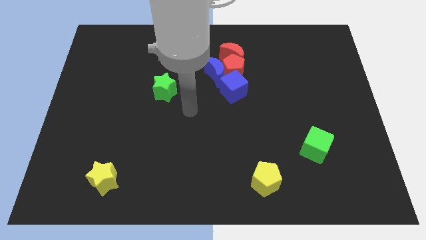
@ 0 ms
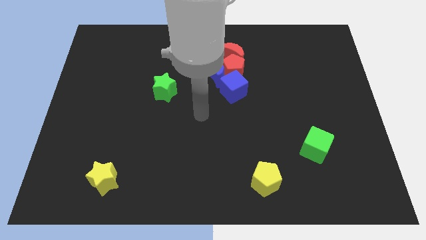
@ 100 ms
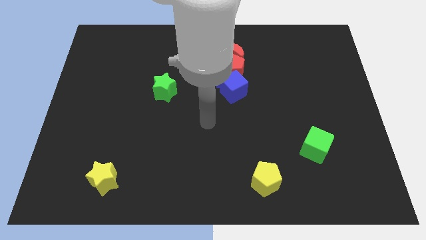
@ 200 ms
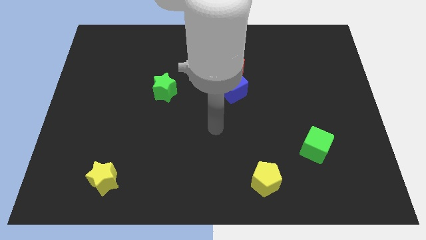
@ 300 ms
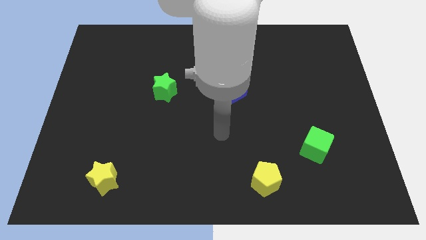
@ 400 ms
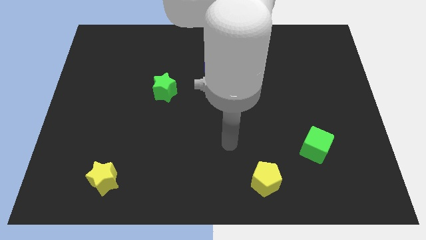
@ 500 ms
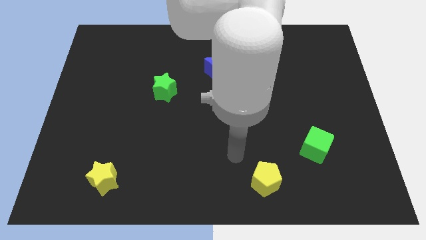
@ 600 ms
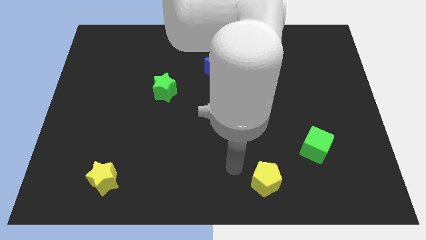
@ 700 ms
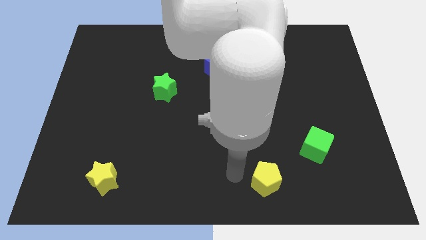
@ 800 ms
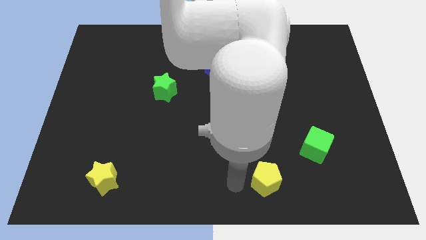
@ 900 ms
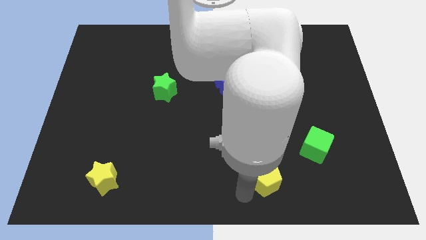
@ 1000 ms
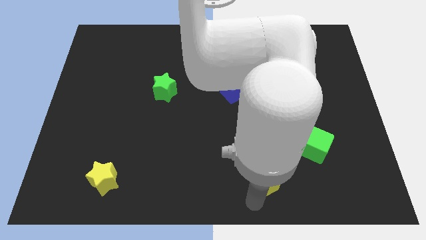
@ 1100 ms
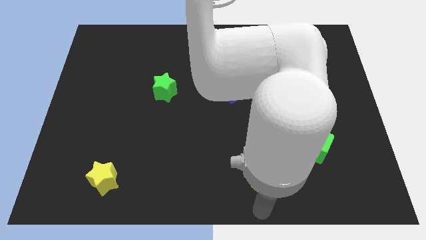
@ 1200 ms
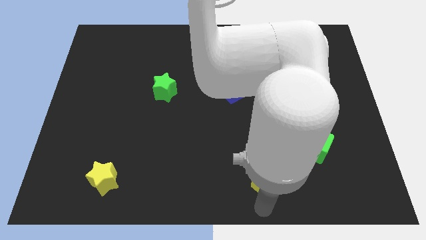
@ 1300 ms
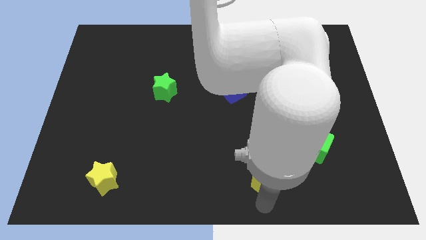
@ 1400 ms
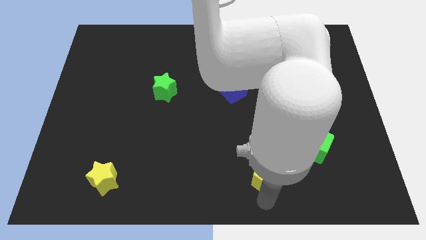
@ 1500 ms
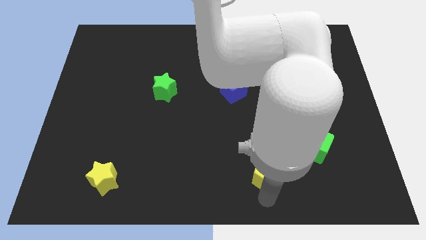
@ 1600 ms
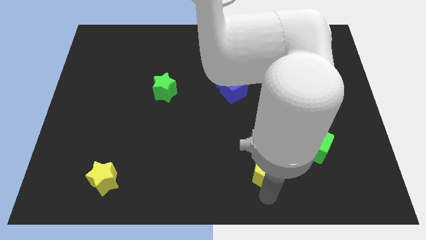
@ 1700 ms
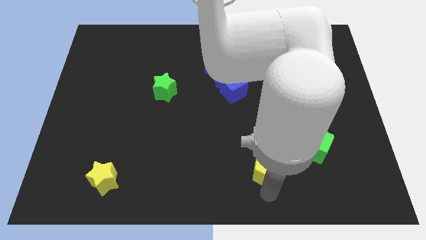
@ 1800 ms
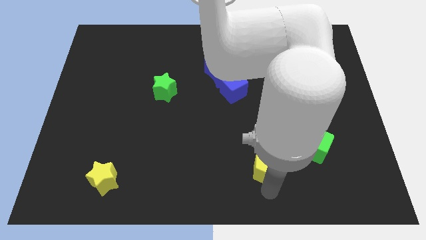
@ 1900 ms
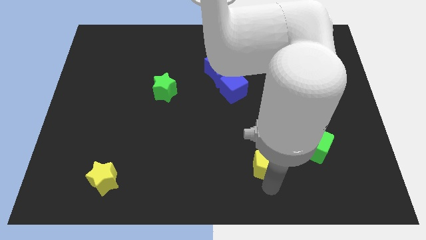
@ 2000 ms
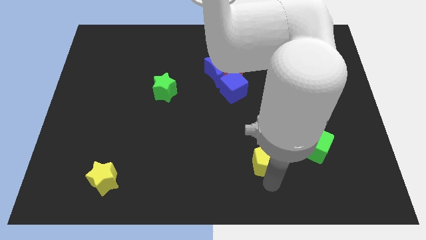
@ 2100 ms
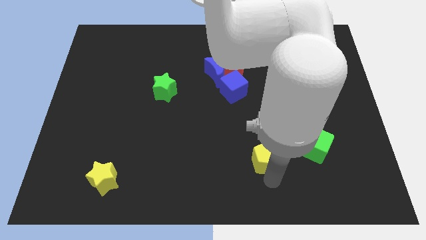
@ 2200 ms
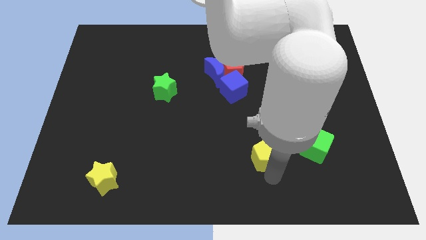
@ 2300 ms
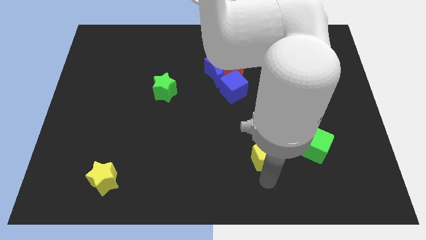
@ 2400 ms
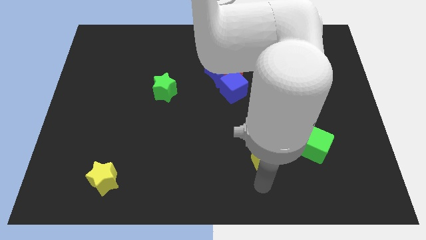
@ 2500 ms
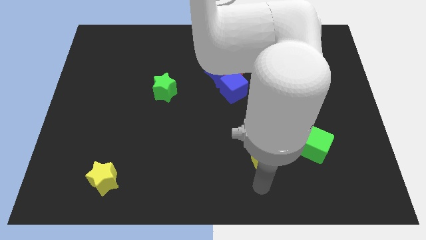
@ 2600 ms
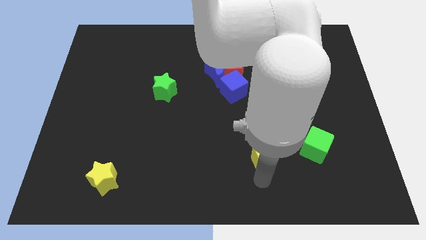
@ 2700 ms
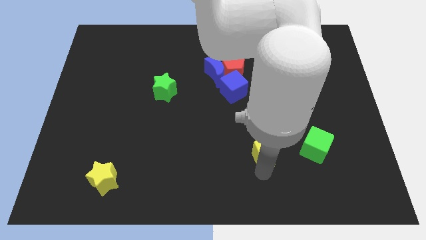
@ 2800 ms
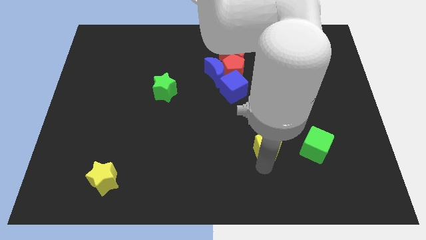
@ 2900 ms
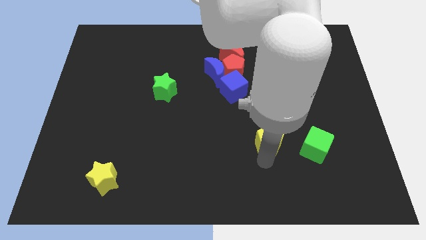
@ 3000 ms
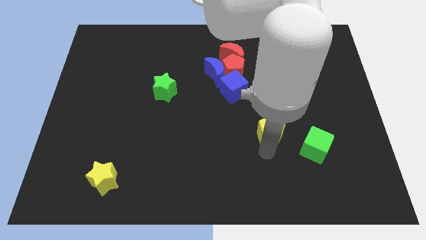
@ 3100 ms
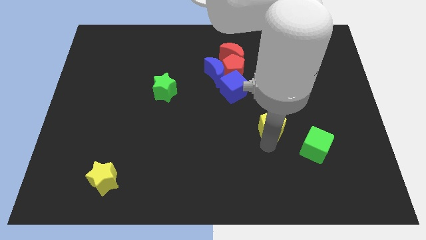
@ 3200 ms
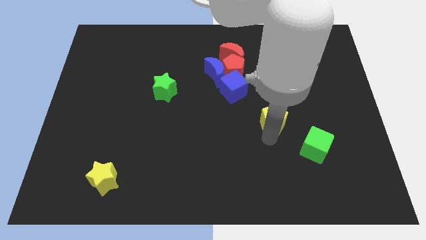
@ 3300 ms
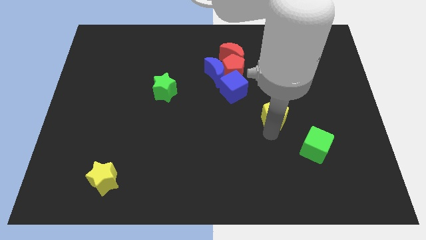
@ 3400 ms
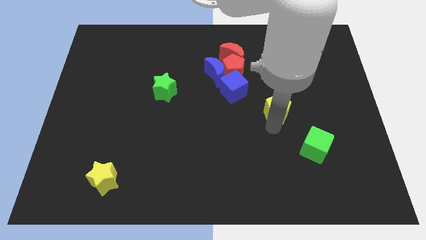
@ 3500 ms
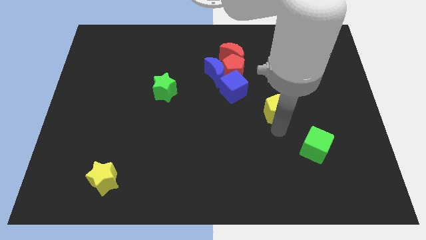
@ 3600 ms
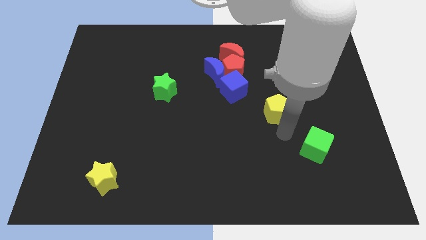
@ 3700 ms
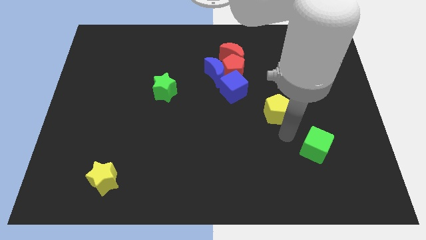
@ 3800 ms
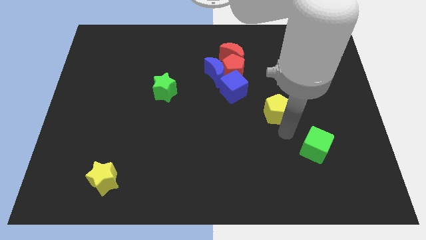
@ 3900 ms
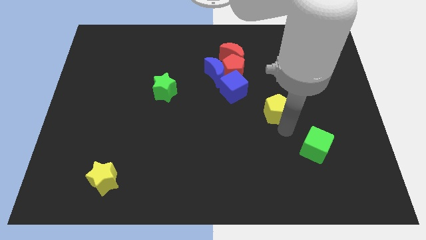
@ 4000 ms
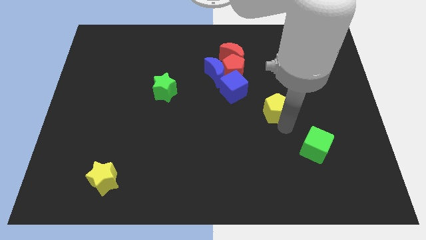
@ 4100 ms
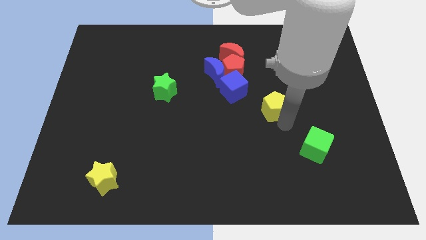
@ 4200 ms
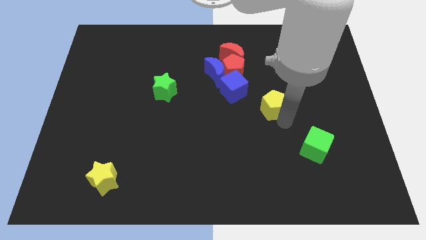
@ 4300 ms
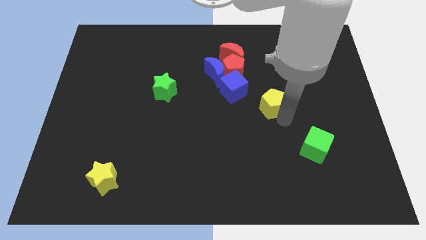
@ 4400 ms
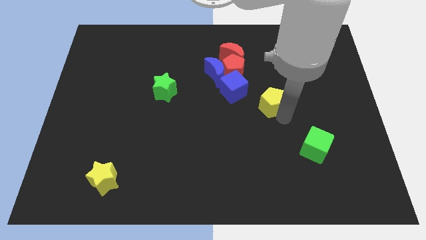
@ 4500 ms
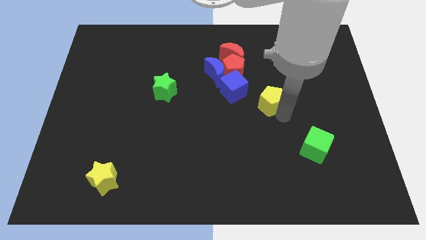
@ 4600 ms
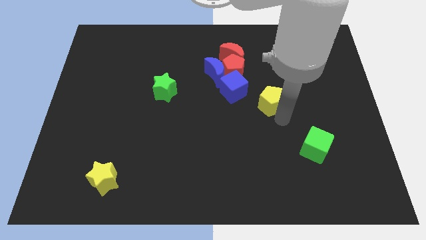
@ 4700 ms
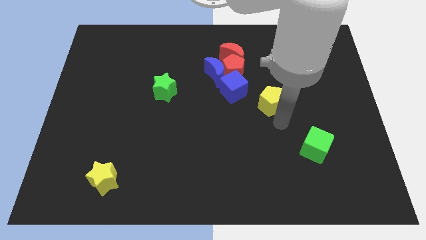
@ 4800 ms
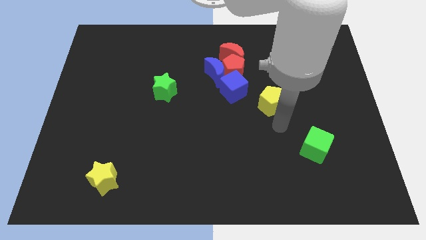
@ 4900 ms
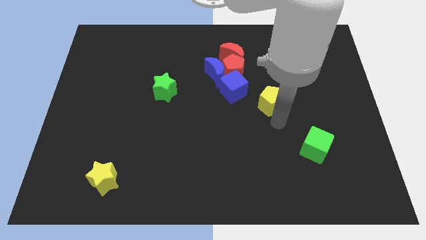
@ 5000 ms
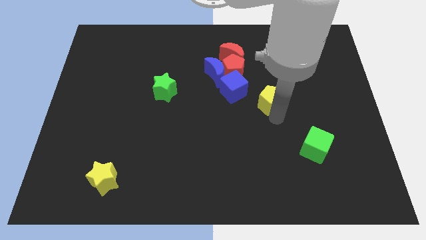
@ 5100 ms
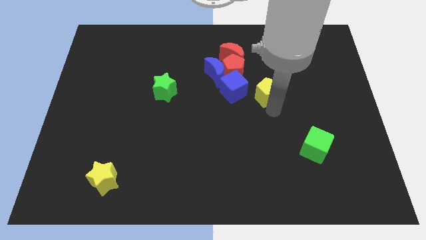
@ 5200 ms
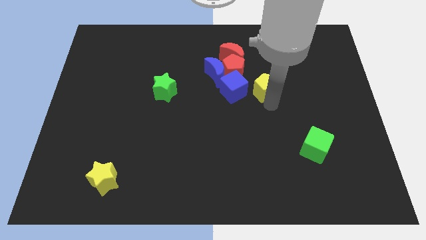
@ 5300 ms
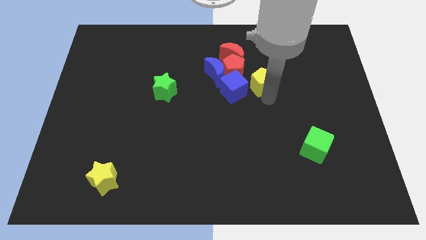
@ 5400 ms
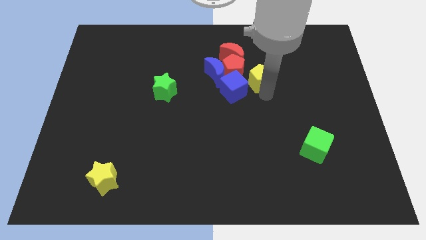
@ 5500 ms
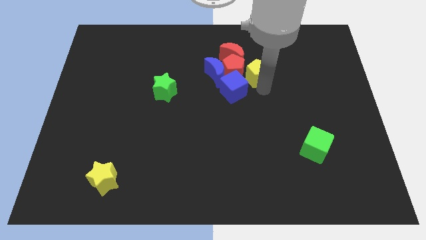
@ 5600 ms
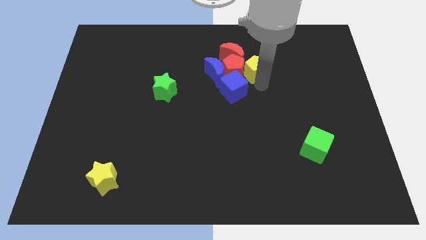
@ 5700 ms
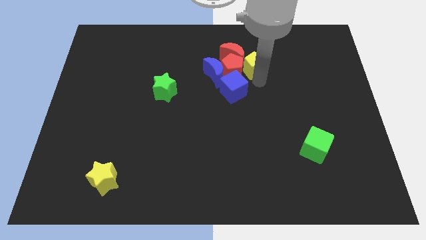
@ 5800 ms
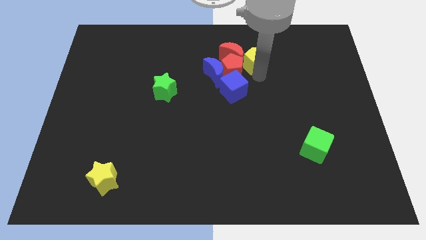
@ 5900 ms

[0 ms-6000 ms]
put the yellow pentagon towards the red moon

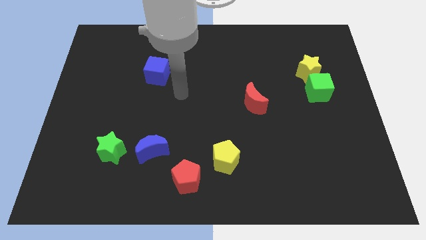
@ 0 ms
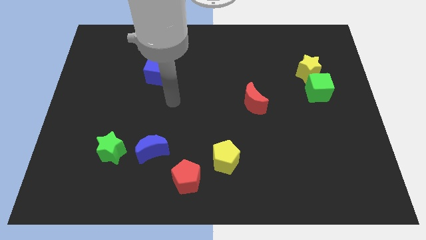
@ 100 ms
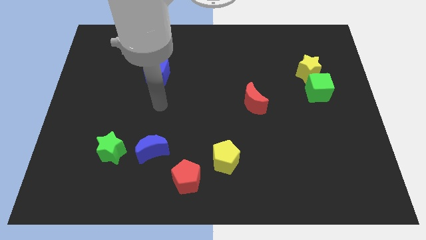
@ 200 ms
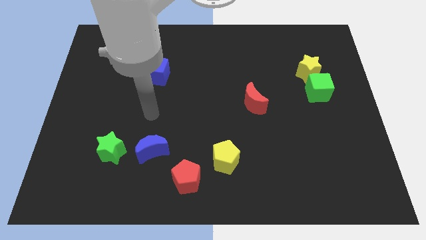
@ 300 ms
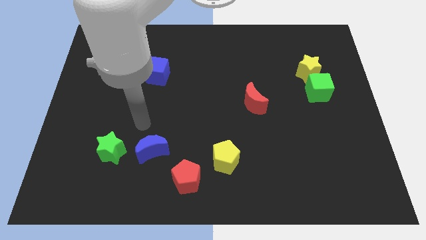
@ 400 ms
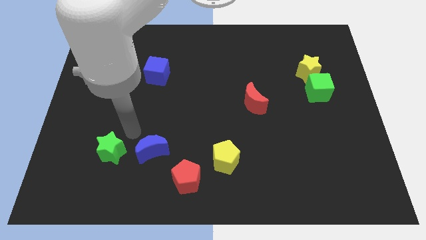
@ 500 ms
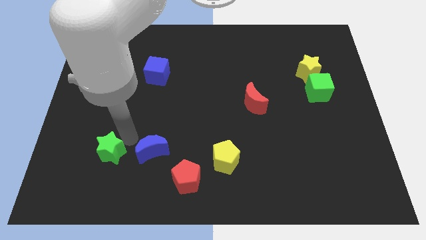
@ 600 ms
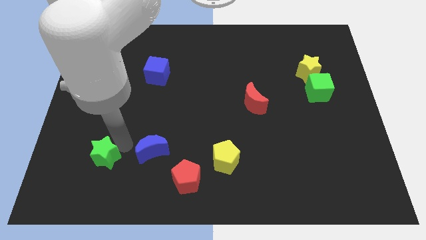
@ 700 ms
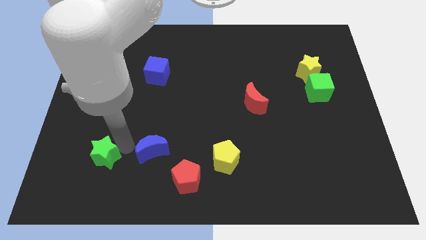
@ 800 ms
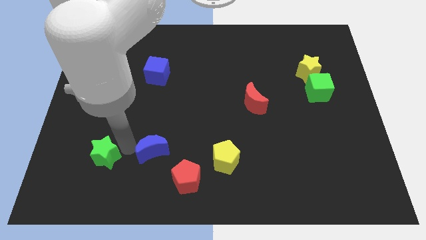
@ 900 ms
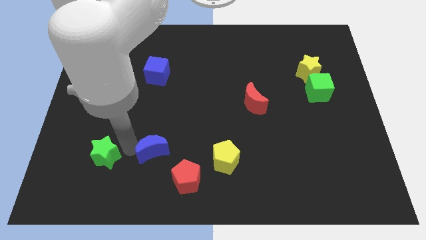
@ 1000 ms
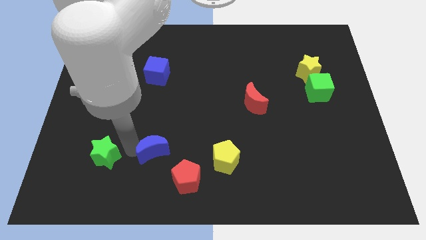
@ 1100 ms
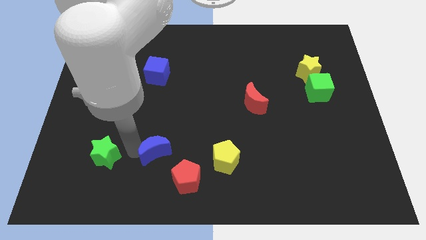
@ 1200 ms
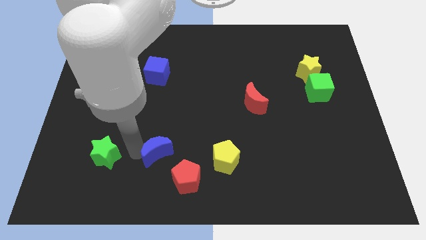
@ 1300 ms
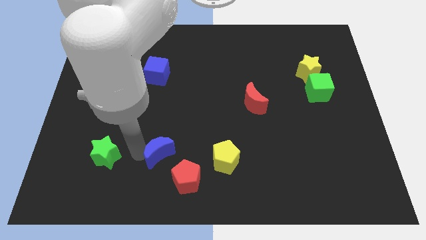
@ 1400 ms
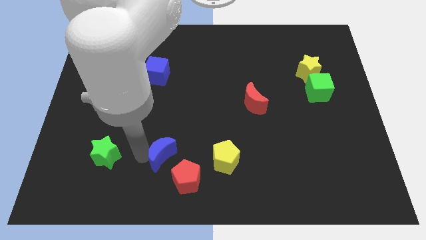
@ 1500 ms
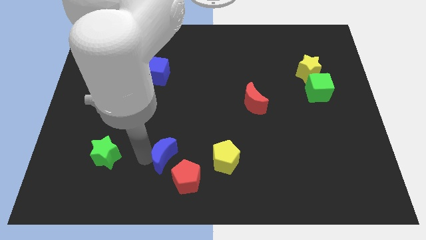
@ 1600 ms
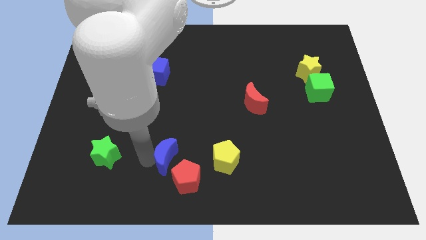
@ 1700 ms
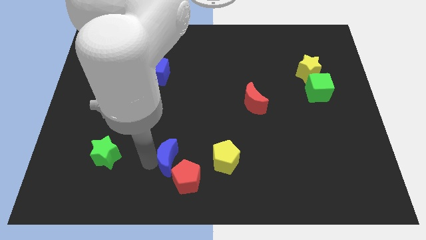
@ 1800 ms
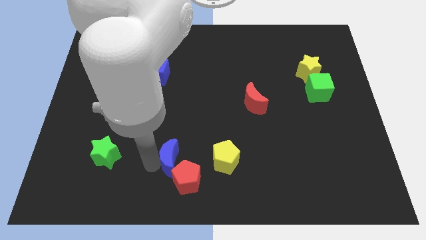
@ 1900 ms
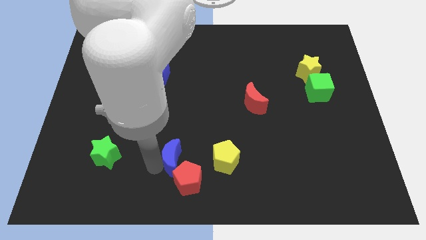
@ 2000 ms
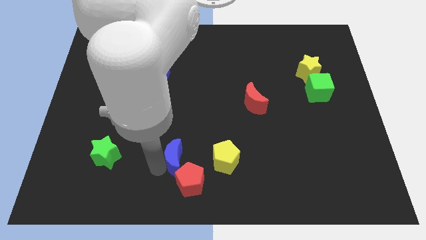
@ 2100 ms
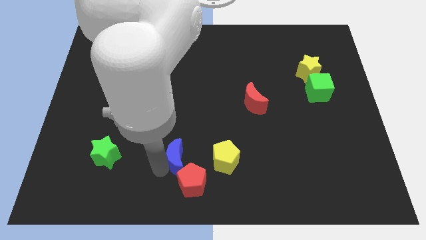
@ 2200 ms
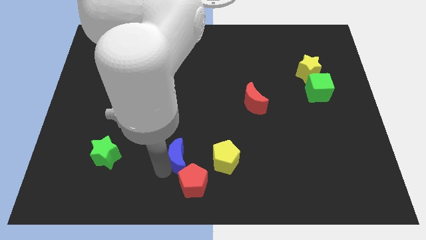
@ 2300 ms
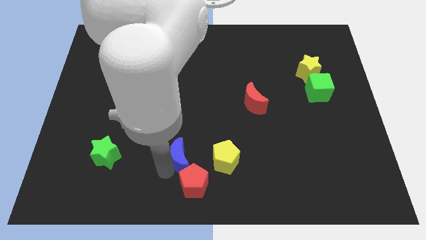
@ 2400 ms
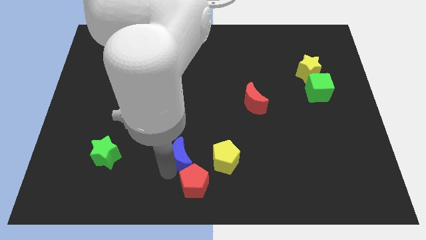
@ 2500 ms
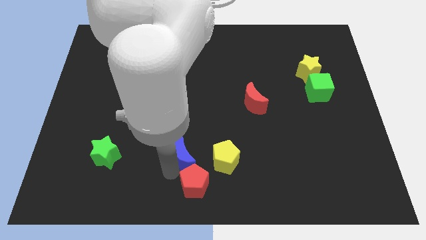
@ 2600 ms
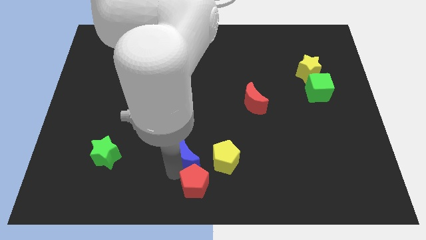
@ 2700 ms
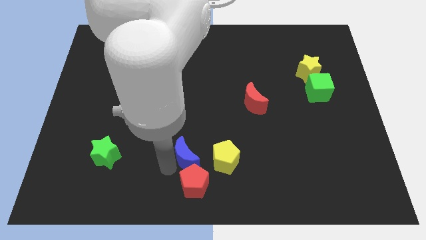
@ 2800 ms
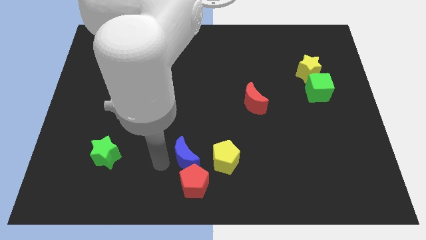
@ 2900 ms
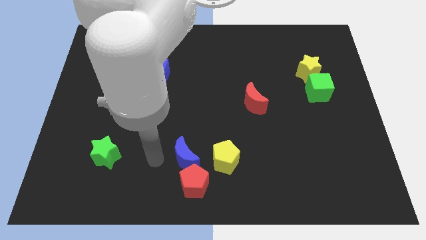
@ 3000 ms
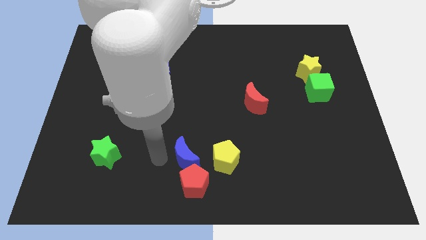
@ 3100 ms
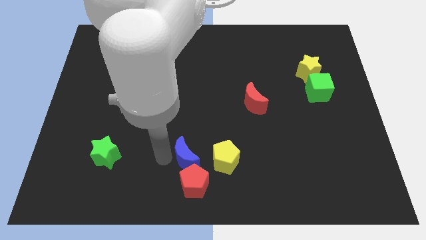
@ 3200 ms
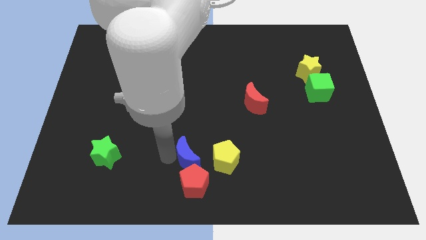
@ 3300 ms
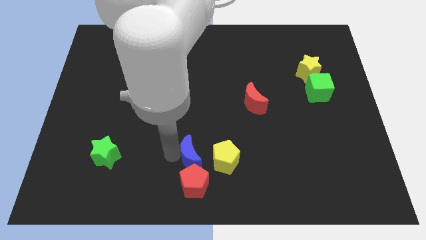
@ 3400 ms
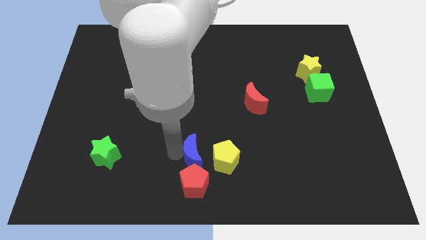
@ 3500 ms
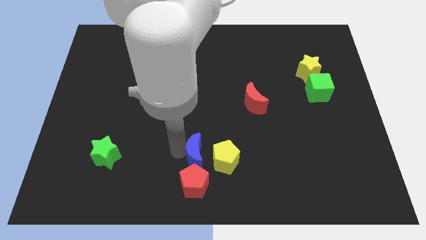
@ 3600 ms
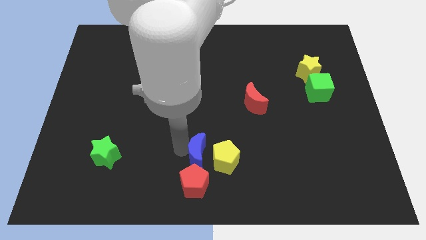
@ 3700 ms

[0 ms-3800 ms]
move the blue moon towards the yellow pentagon
